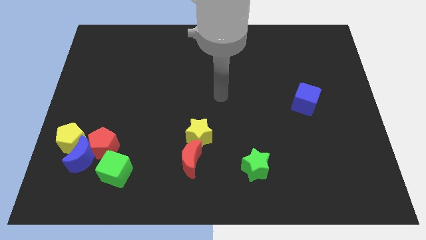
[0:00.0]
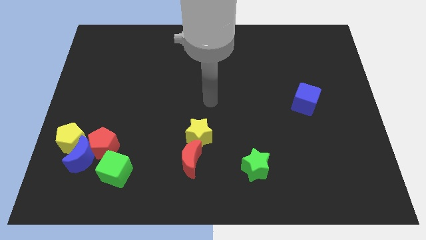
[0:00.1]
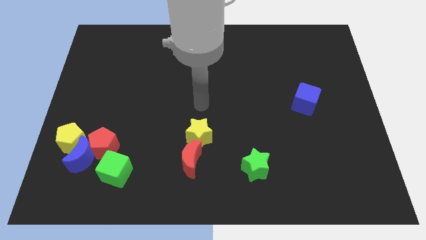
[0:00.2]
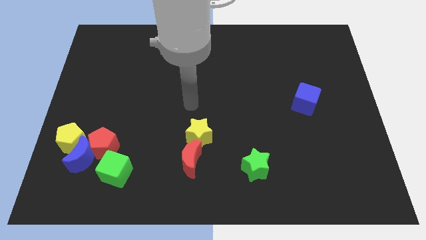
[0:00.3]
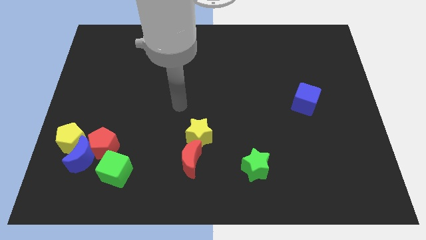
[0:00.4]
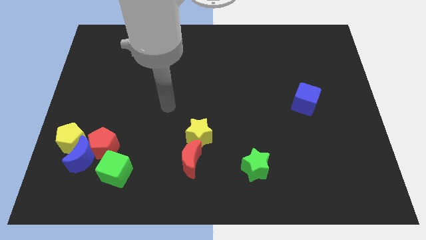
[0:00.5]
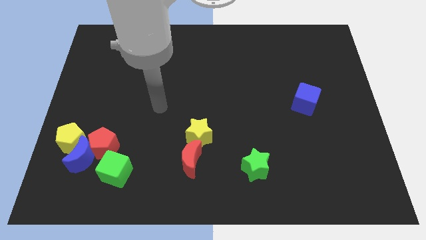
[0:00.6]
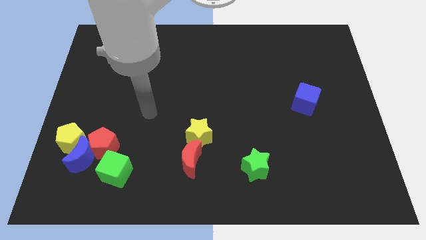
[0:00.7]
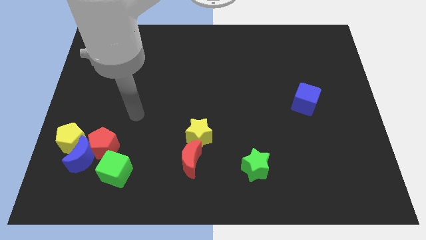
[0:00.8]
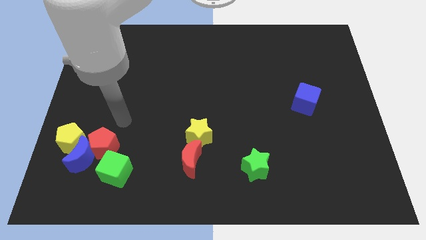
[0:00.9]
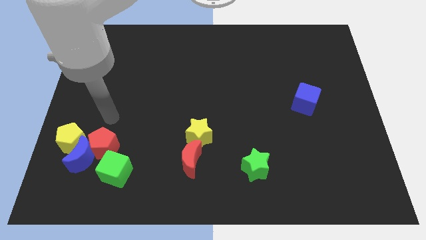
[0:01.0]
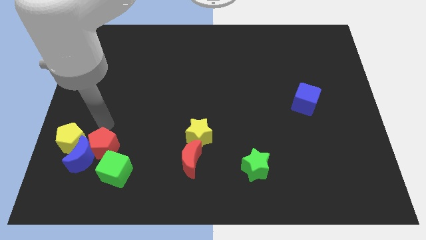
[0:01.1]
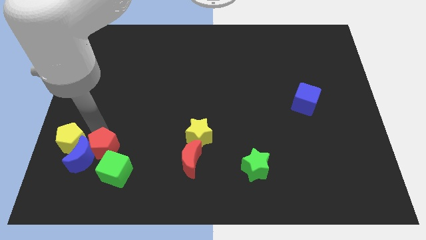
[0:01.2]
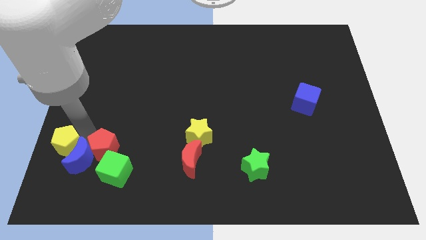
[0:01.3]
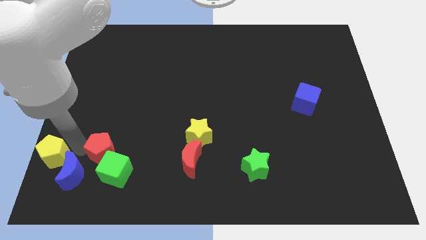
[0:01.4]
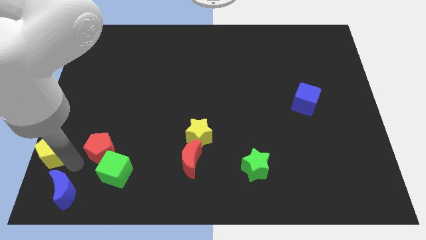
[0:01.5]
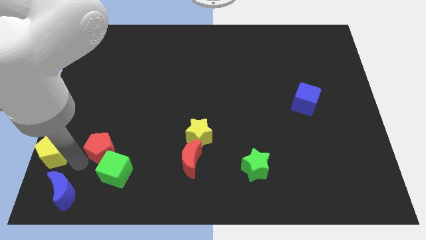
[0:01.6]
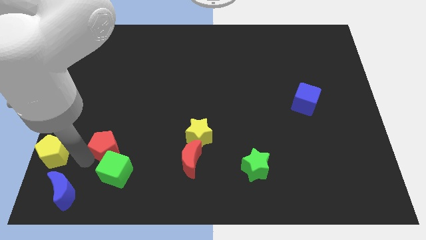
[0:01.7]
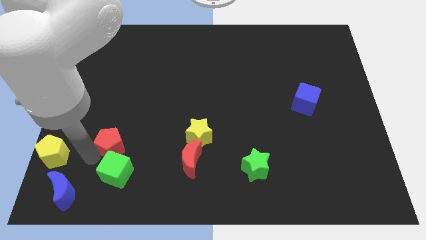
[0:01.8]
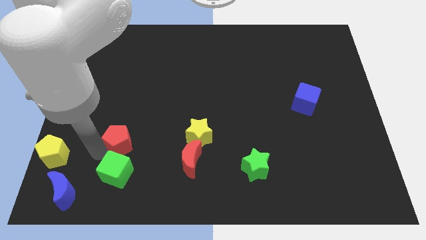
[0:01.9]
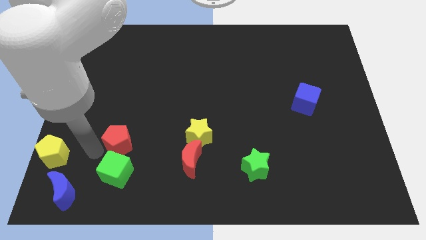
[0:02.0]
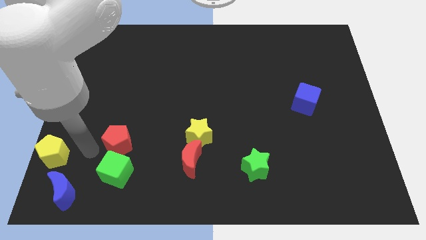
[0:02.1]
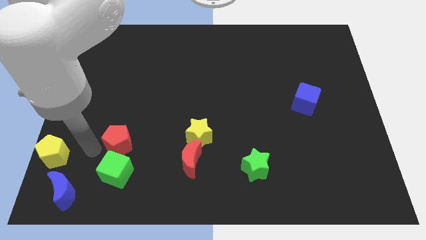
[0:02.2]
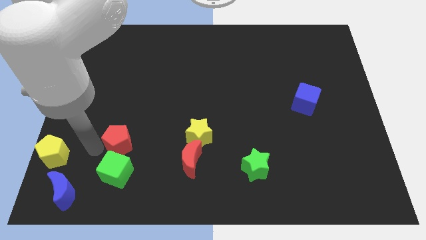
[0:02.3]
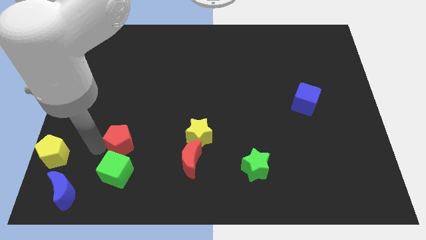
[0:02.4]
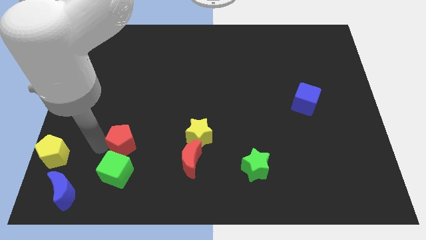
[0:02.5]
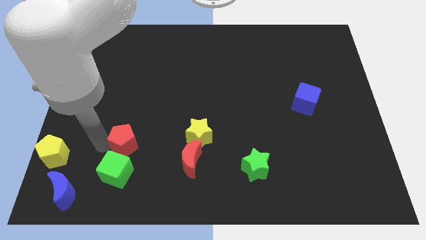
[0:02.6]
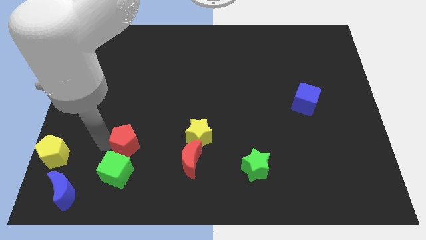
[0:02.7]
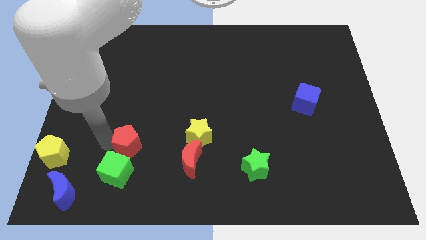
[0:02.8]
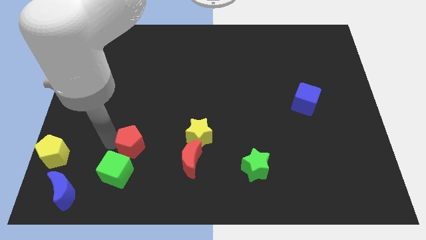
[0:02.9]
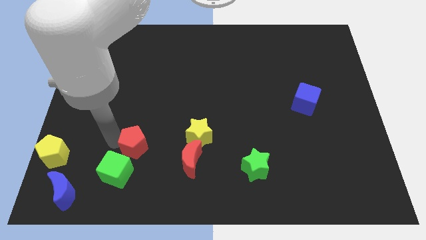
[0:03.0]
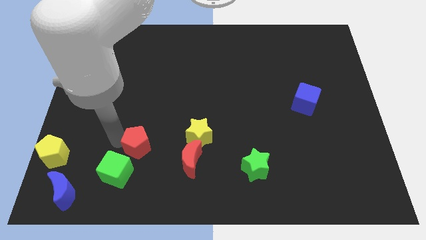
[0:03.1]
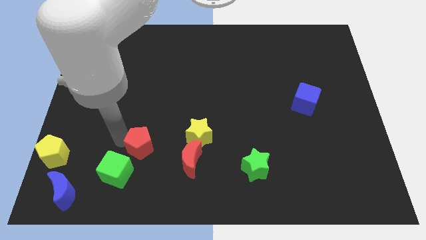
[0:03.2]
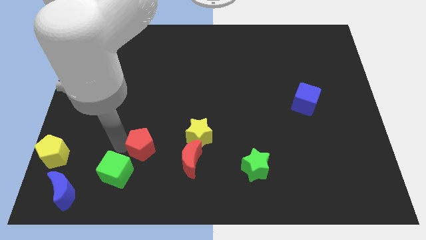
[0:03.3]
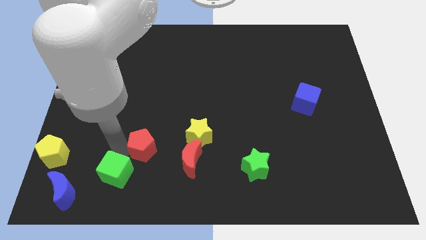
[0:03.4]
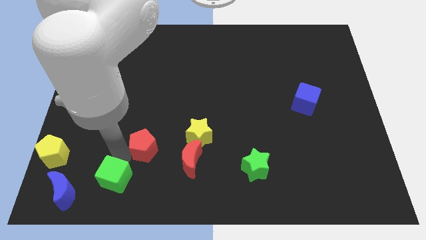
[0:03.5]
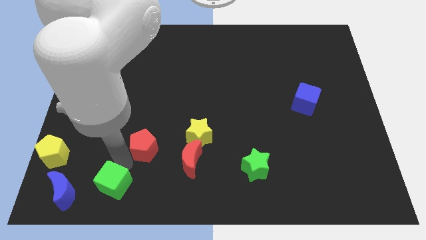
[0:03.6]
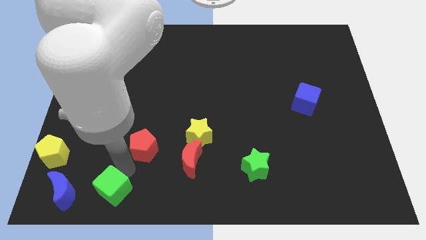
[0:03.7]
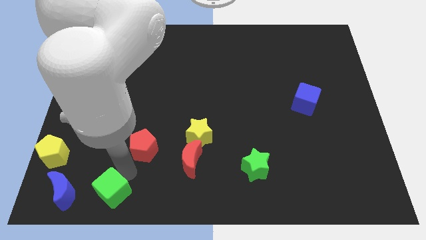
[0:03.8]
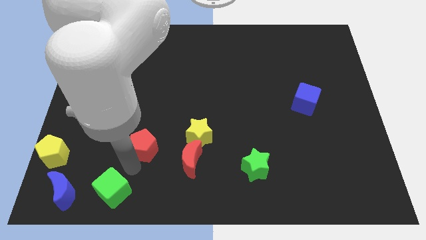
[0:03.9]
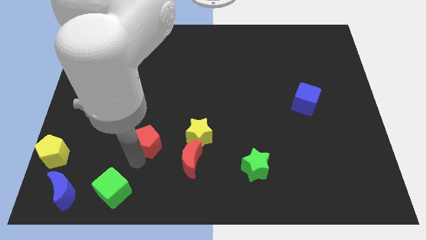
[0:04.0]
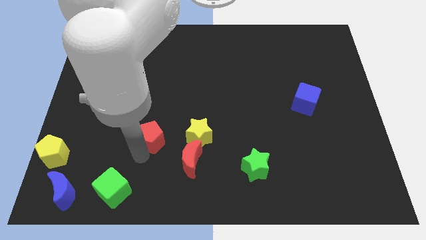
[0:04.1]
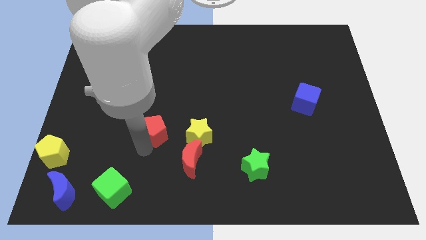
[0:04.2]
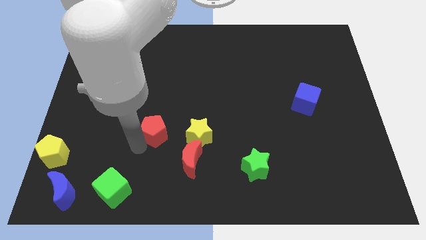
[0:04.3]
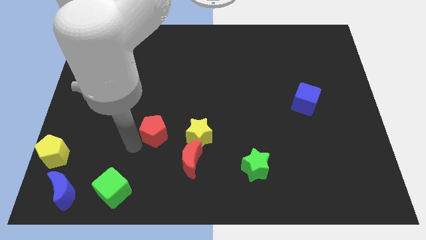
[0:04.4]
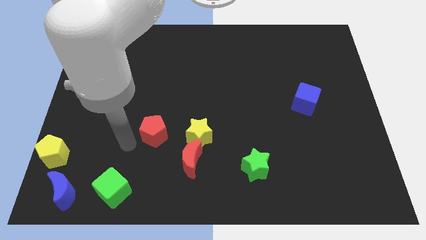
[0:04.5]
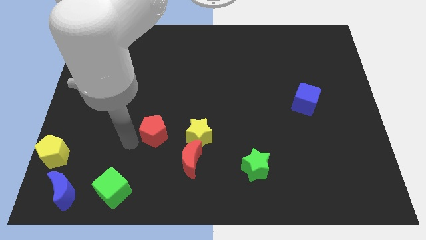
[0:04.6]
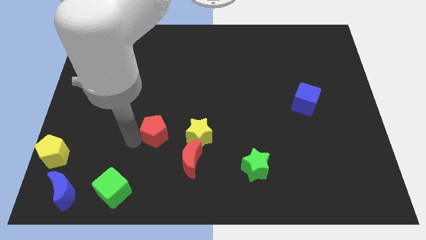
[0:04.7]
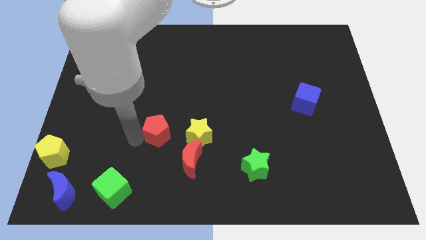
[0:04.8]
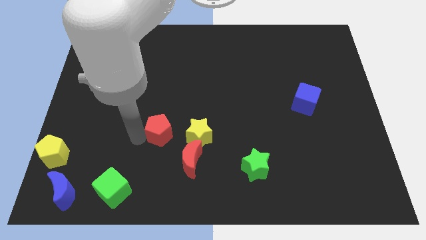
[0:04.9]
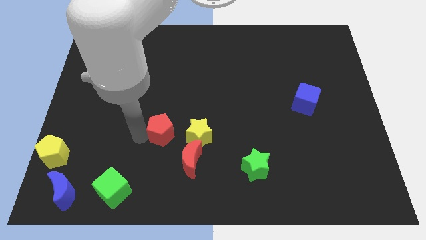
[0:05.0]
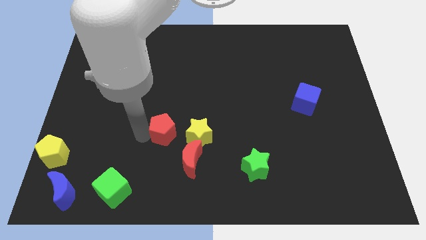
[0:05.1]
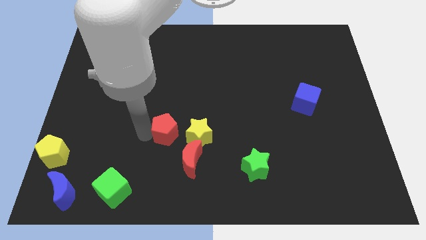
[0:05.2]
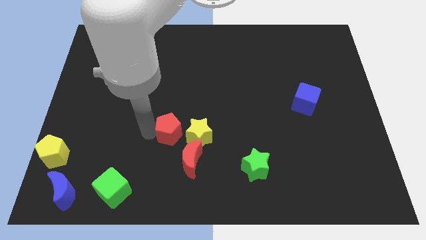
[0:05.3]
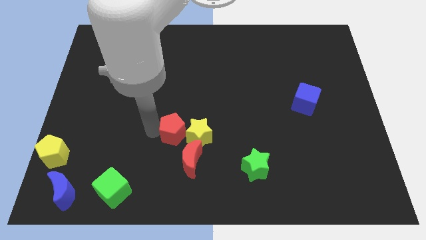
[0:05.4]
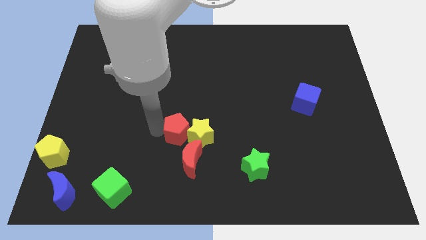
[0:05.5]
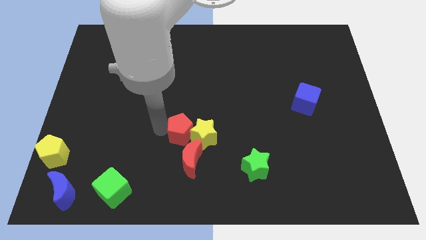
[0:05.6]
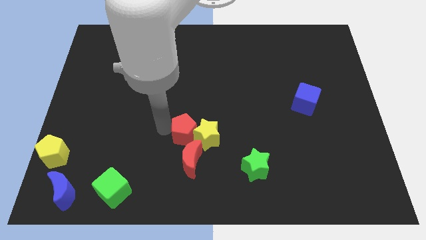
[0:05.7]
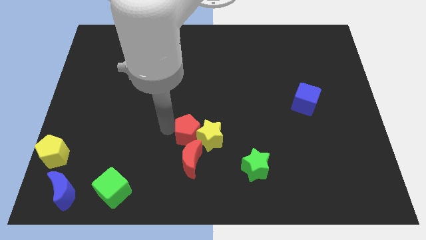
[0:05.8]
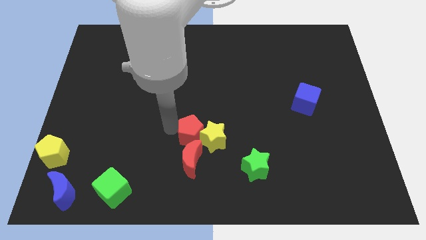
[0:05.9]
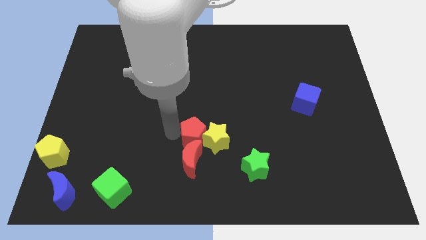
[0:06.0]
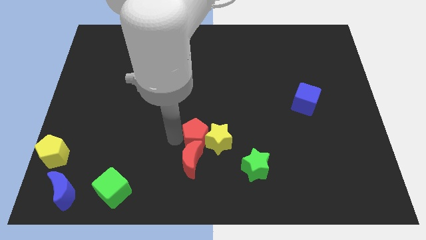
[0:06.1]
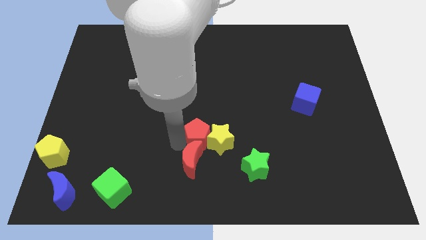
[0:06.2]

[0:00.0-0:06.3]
slide the red pentagon to the right

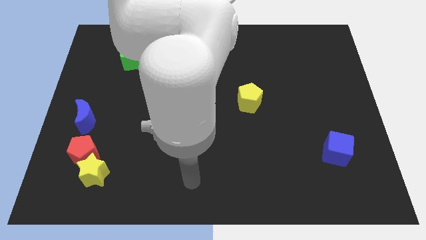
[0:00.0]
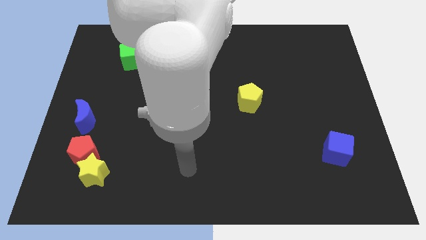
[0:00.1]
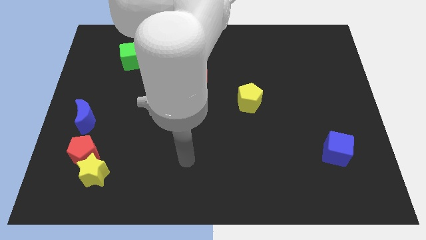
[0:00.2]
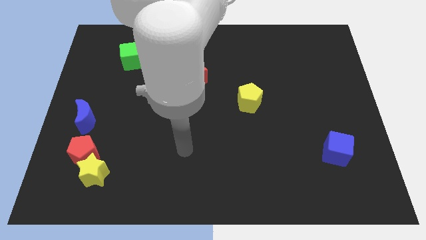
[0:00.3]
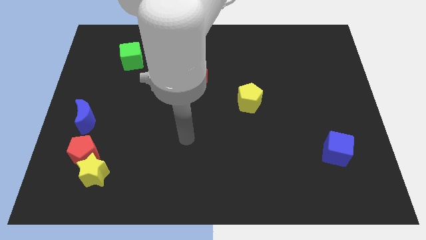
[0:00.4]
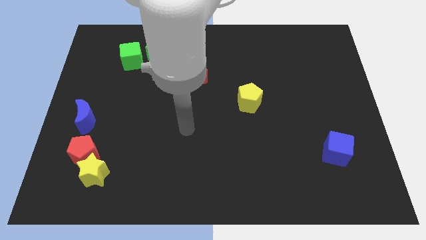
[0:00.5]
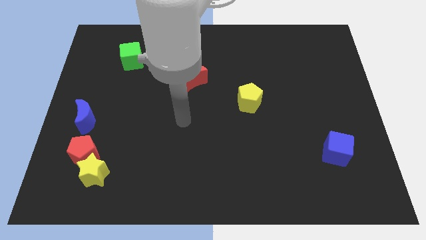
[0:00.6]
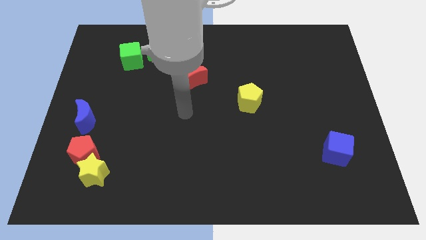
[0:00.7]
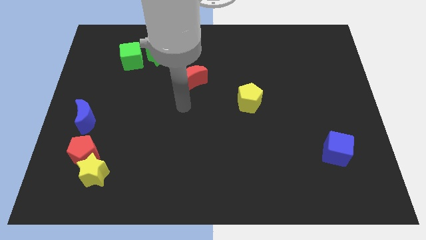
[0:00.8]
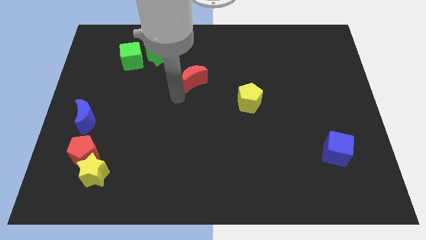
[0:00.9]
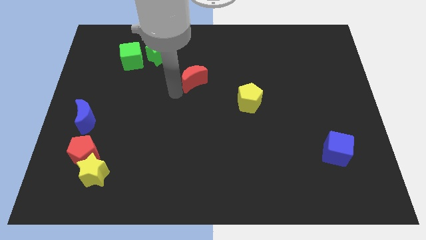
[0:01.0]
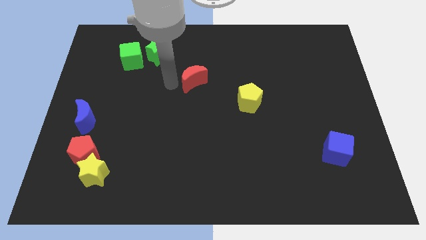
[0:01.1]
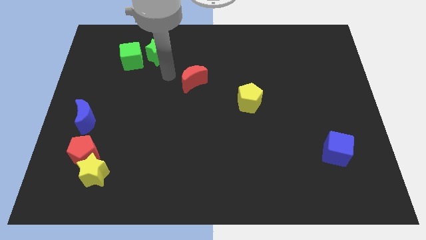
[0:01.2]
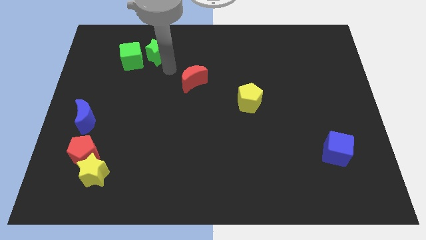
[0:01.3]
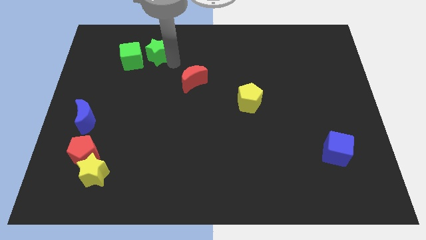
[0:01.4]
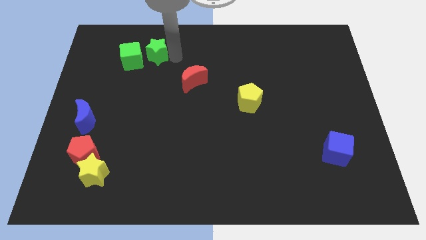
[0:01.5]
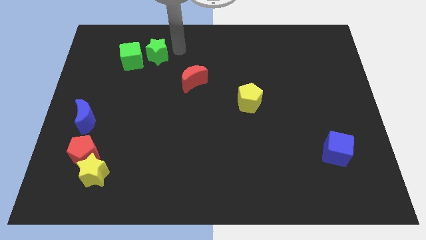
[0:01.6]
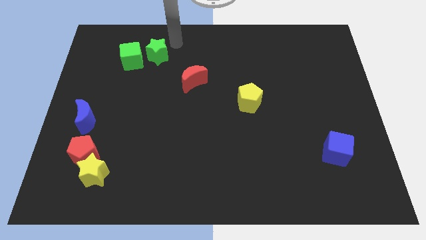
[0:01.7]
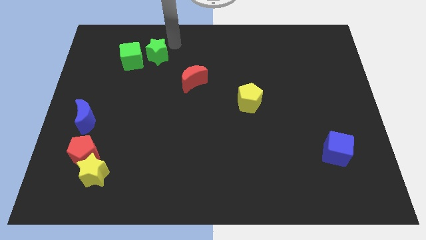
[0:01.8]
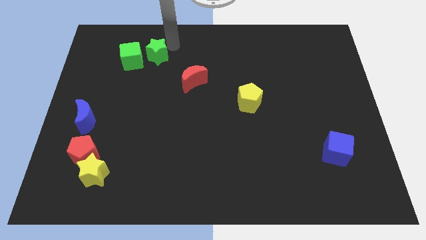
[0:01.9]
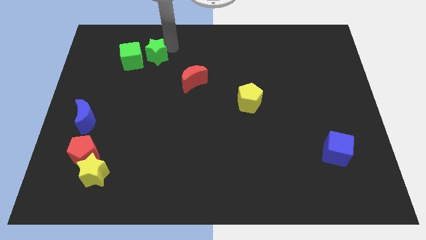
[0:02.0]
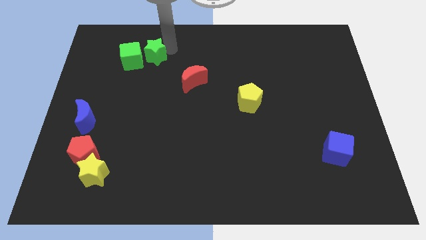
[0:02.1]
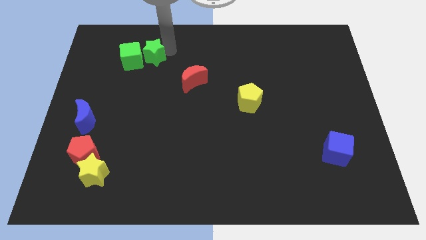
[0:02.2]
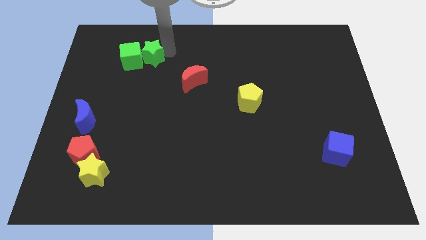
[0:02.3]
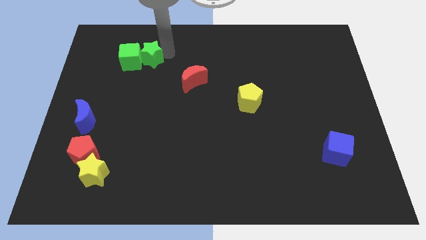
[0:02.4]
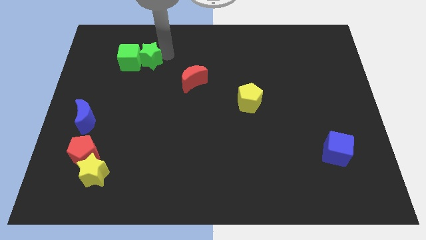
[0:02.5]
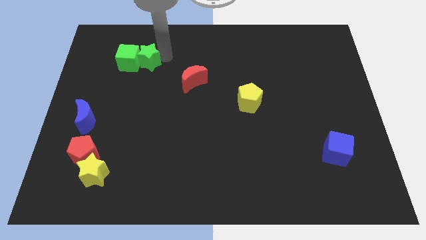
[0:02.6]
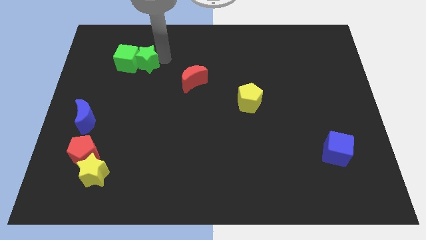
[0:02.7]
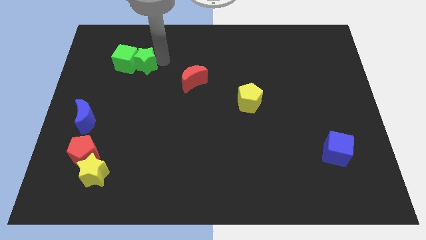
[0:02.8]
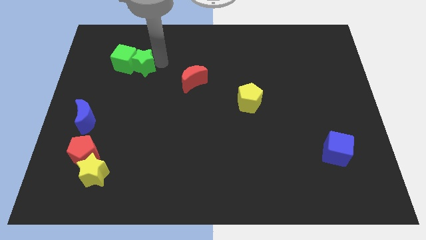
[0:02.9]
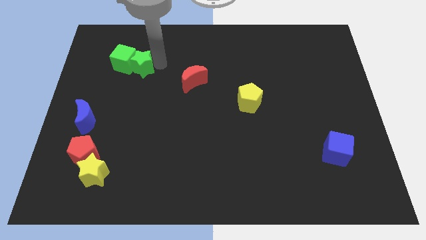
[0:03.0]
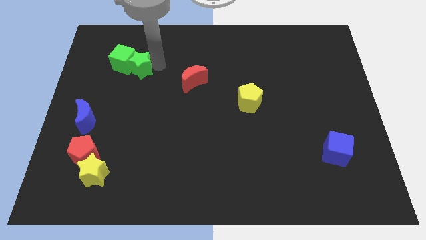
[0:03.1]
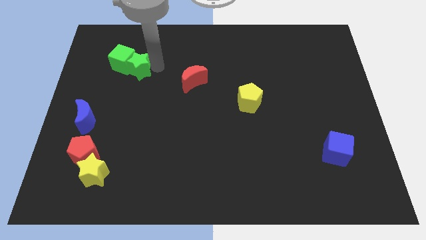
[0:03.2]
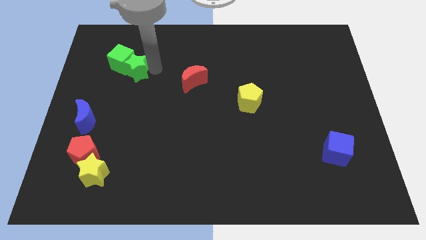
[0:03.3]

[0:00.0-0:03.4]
push the green star diagonally down and to the left slightly
